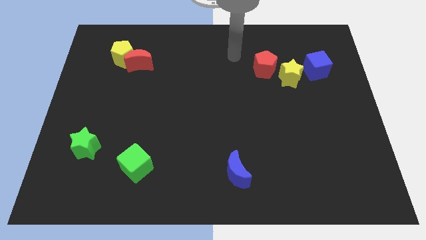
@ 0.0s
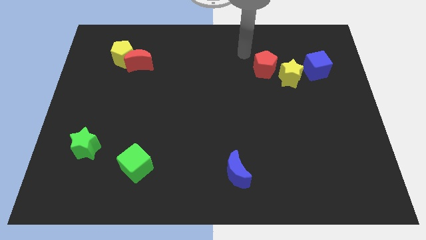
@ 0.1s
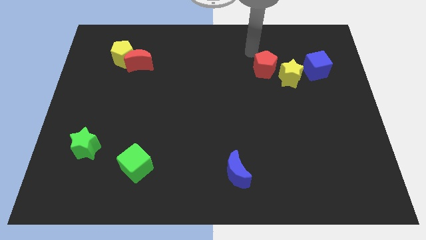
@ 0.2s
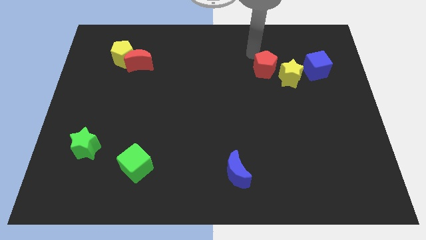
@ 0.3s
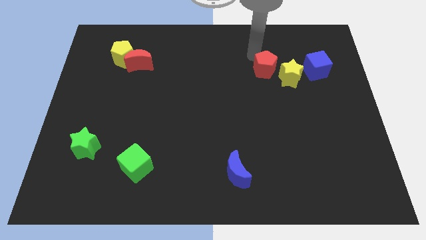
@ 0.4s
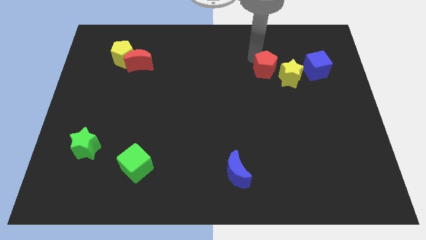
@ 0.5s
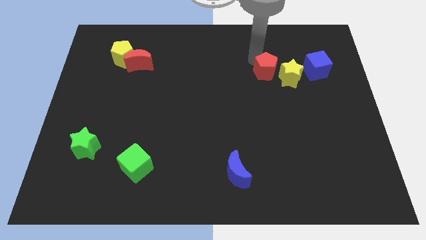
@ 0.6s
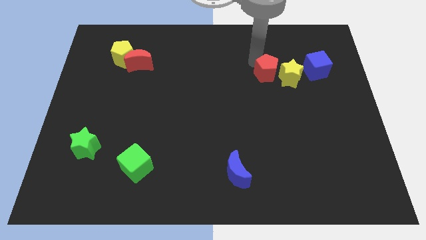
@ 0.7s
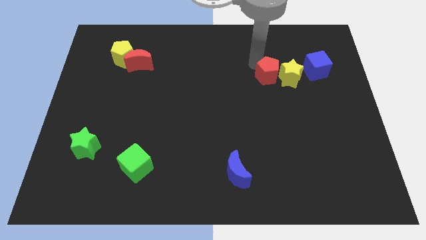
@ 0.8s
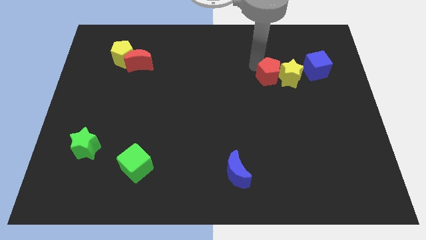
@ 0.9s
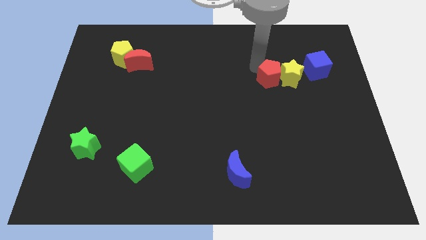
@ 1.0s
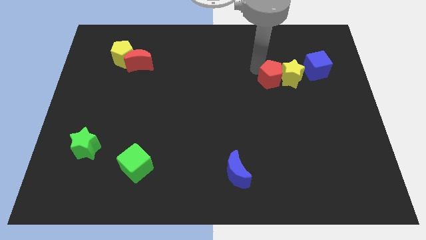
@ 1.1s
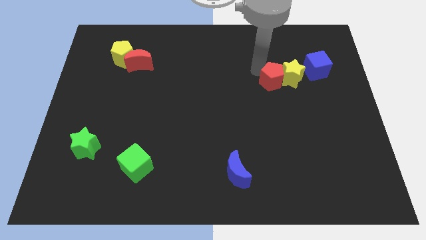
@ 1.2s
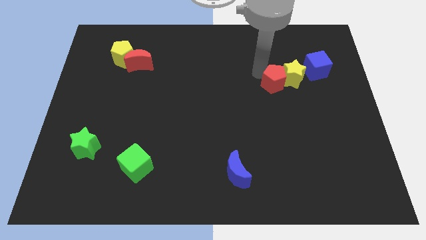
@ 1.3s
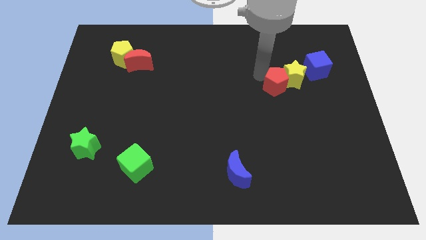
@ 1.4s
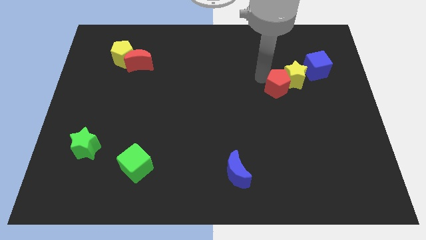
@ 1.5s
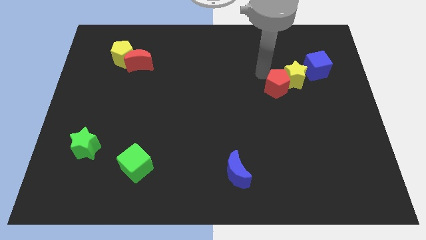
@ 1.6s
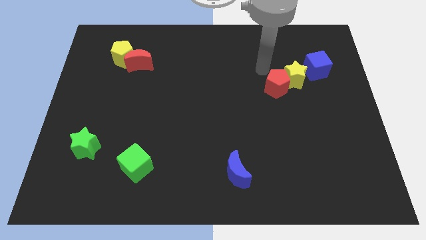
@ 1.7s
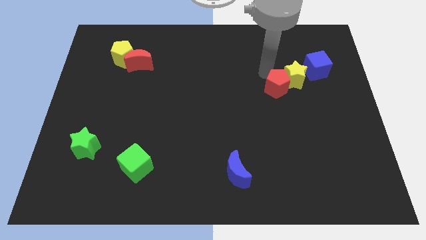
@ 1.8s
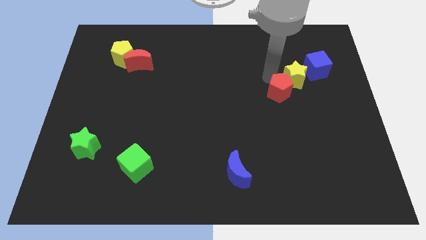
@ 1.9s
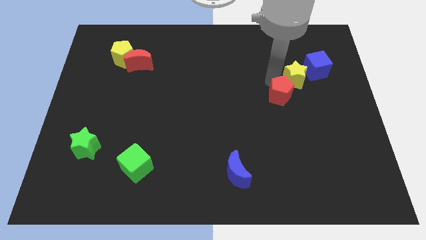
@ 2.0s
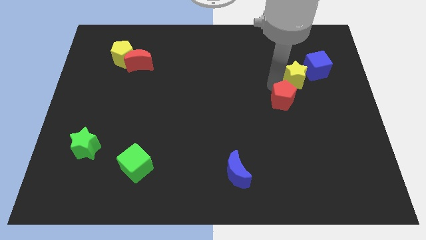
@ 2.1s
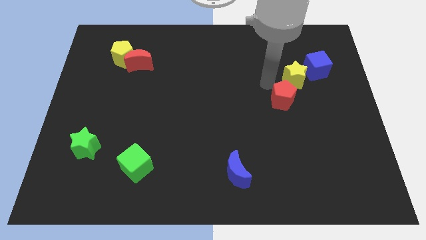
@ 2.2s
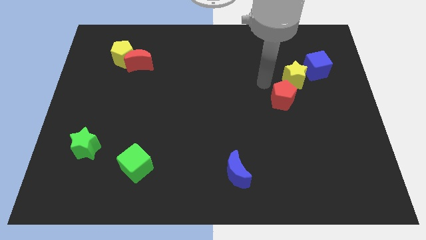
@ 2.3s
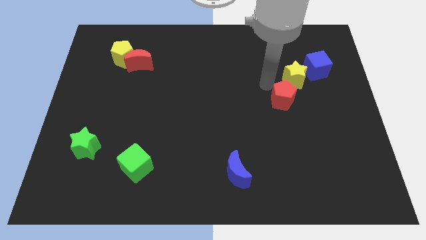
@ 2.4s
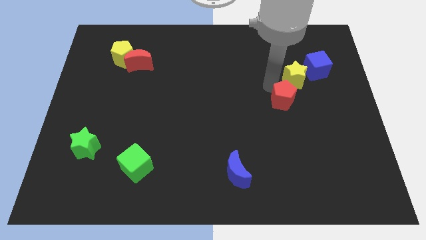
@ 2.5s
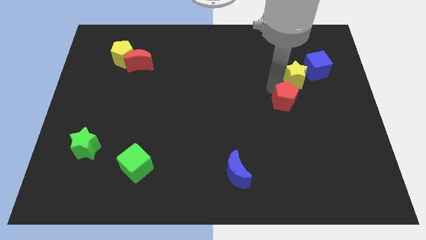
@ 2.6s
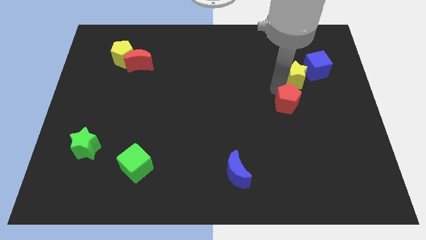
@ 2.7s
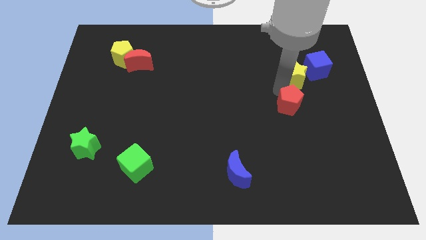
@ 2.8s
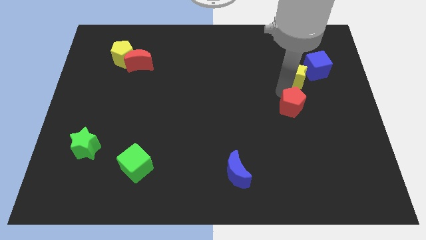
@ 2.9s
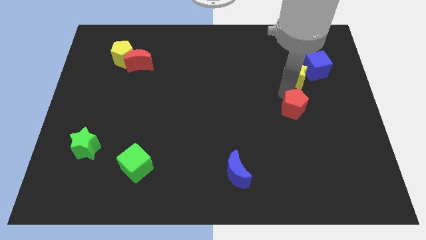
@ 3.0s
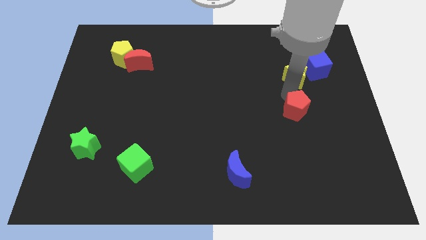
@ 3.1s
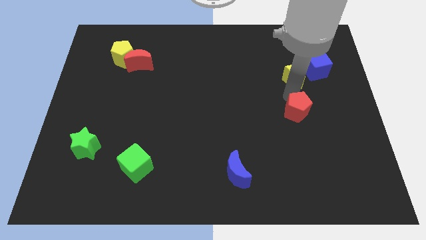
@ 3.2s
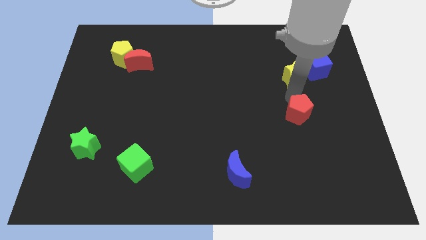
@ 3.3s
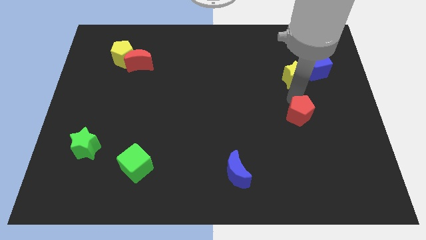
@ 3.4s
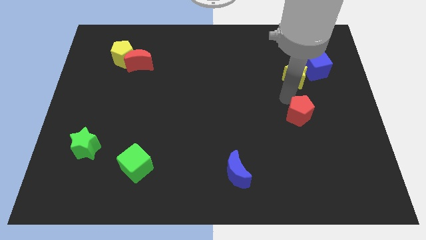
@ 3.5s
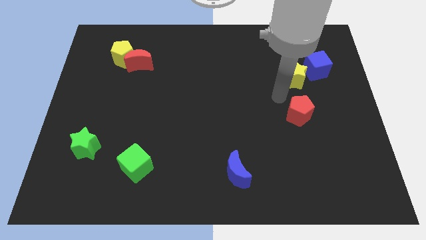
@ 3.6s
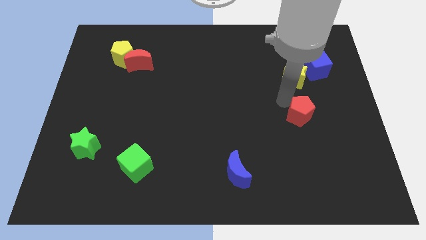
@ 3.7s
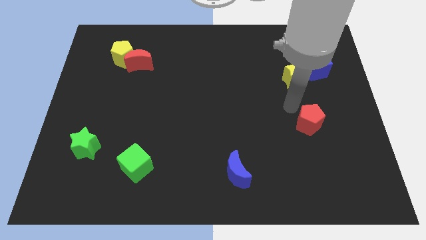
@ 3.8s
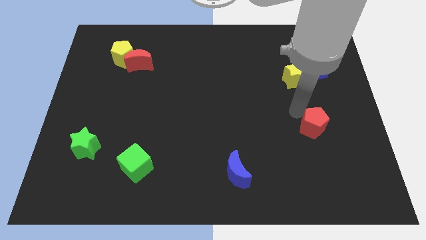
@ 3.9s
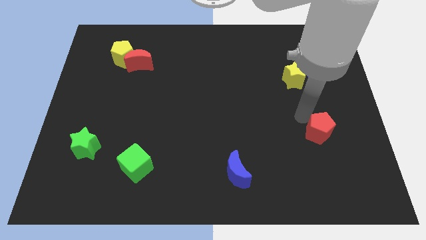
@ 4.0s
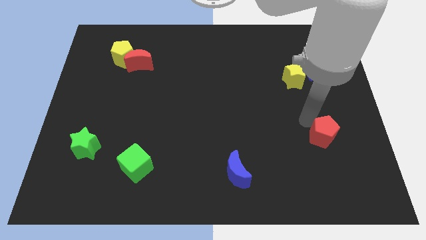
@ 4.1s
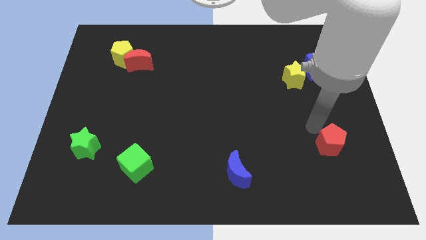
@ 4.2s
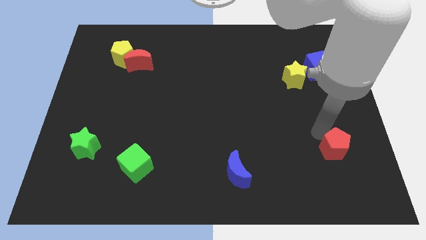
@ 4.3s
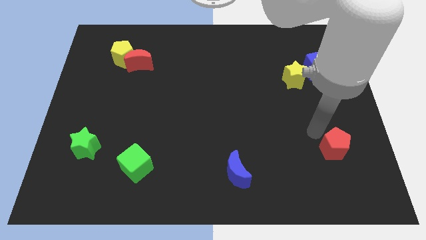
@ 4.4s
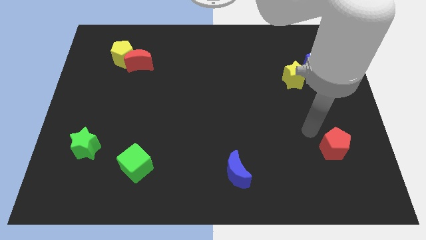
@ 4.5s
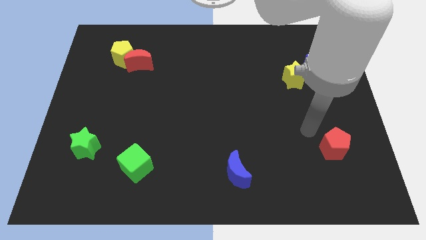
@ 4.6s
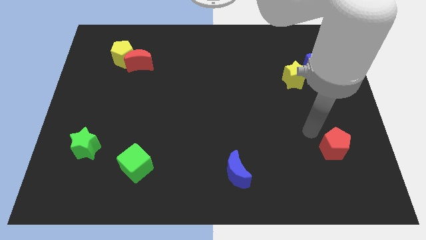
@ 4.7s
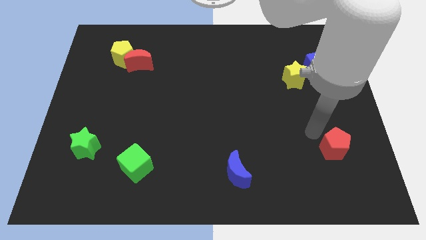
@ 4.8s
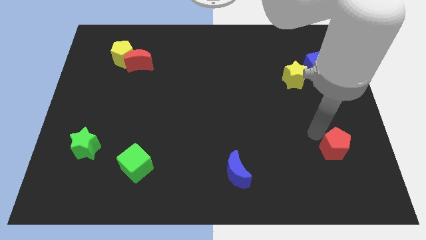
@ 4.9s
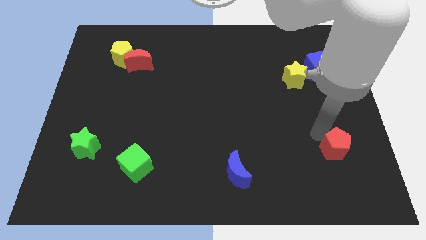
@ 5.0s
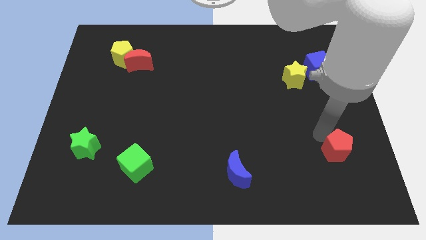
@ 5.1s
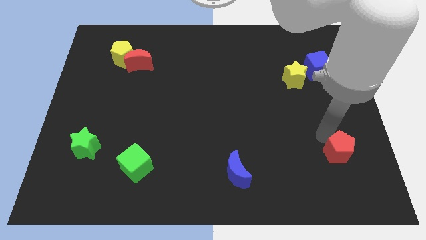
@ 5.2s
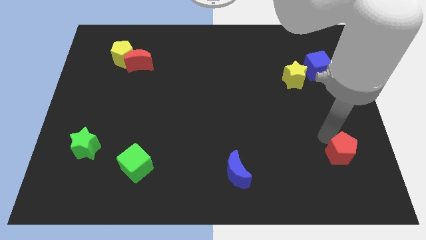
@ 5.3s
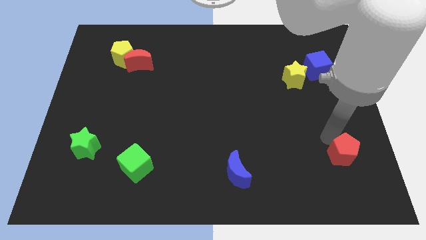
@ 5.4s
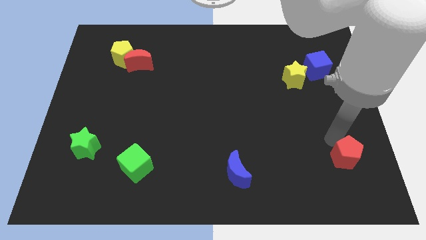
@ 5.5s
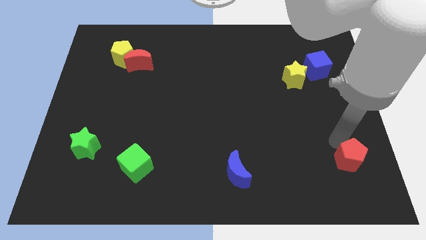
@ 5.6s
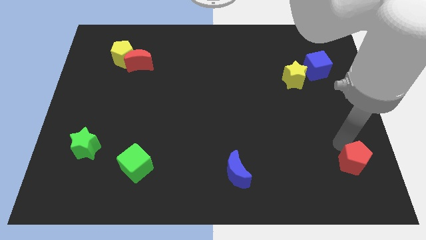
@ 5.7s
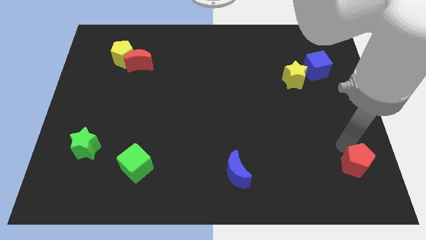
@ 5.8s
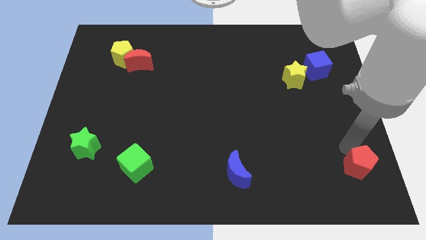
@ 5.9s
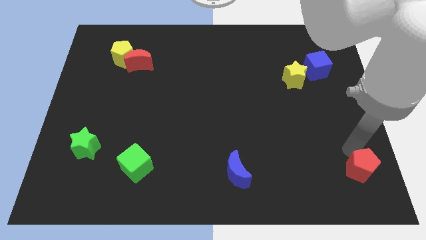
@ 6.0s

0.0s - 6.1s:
move the red pentagon to the bottom right corner

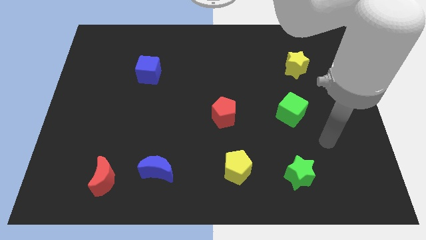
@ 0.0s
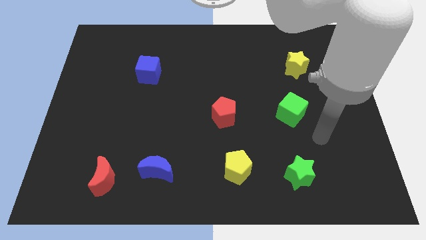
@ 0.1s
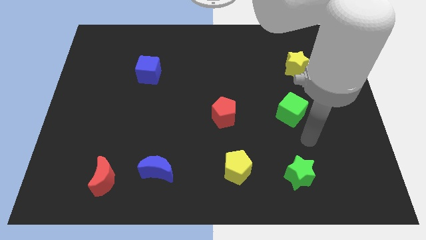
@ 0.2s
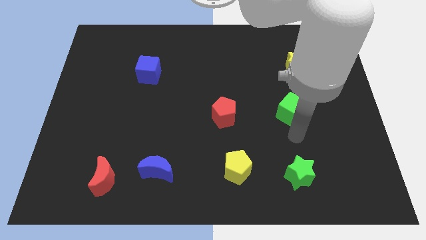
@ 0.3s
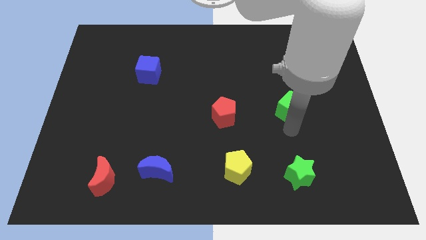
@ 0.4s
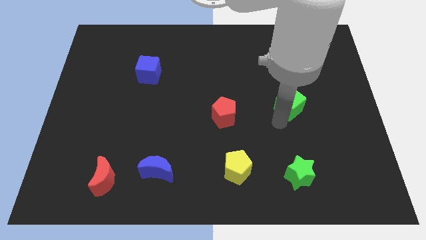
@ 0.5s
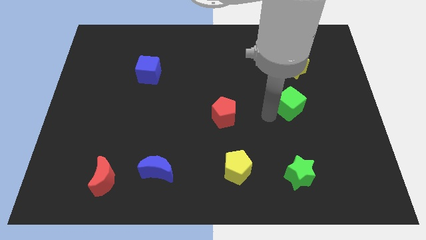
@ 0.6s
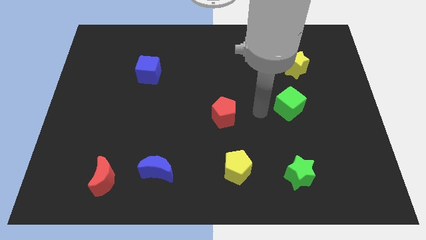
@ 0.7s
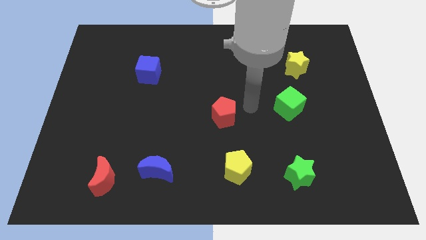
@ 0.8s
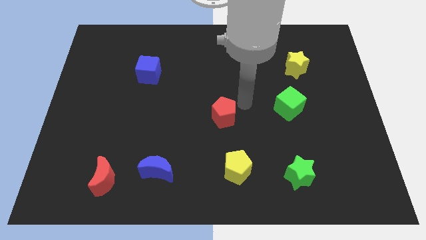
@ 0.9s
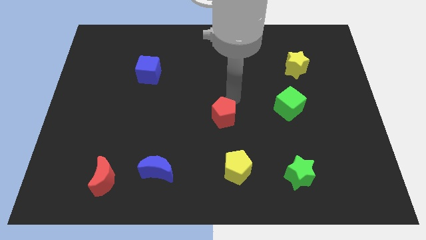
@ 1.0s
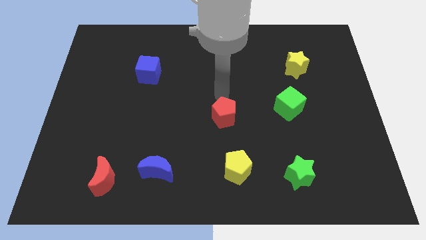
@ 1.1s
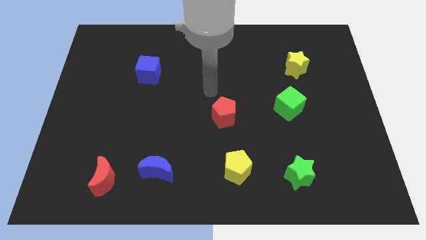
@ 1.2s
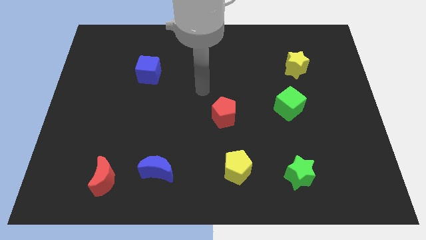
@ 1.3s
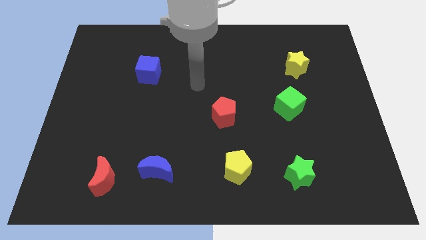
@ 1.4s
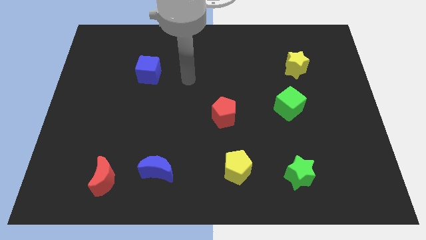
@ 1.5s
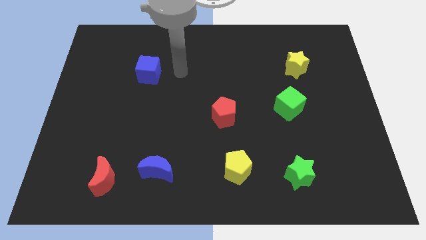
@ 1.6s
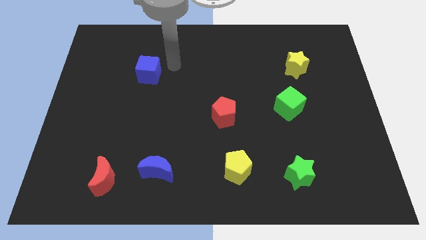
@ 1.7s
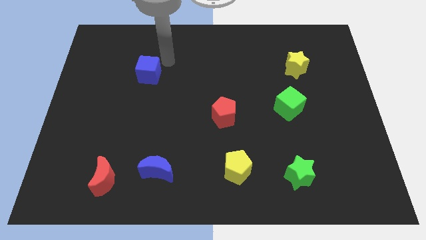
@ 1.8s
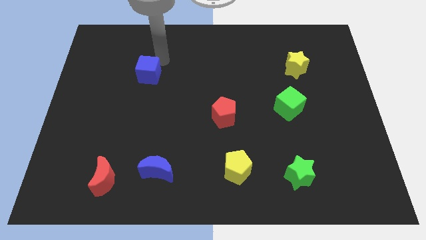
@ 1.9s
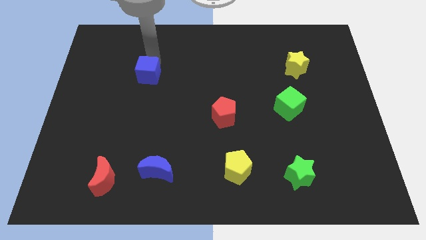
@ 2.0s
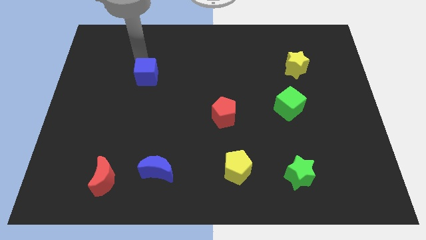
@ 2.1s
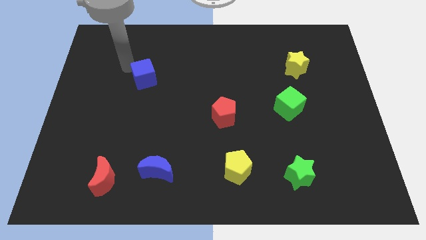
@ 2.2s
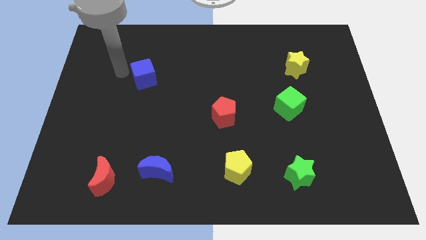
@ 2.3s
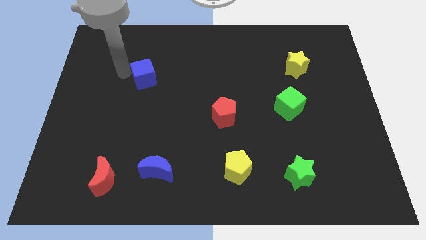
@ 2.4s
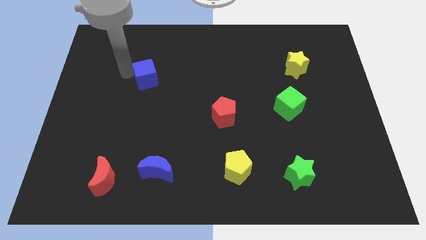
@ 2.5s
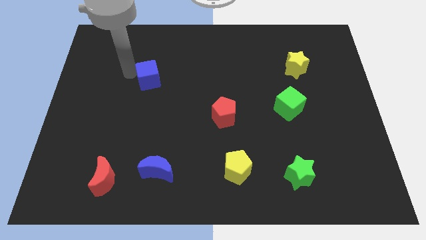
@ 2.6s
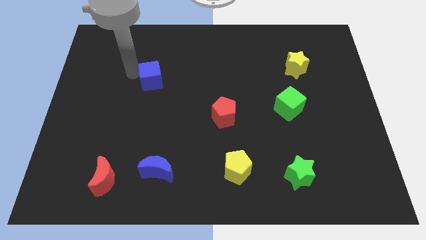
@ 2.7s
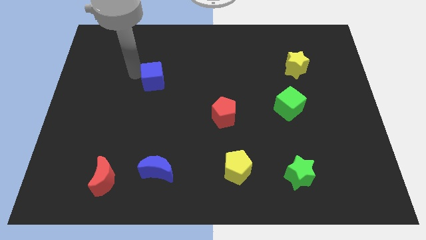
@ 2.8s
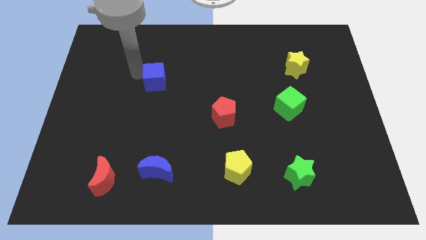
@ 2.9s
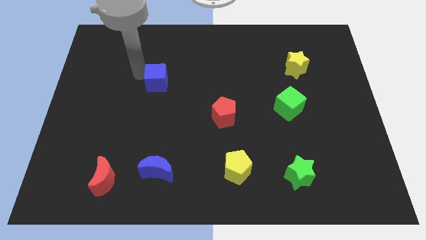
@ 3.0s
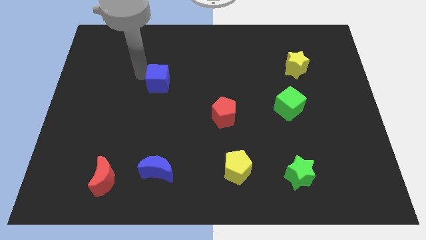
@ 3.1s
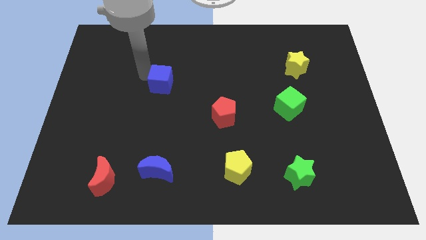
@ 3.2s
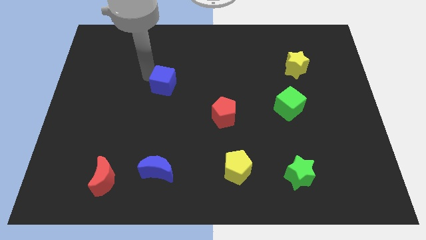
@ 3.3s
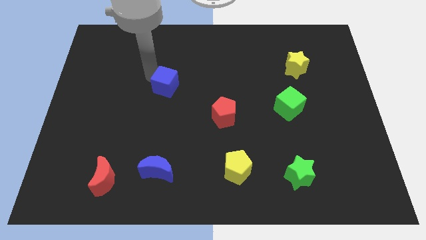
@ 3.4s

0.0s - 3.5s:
put the blue cube to the center
